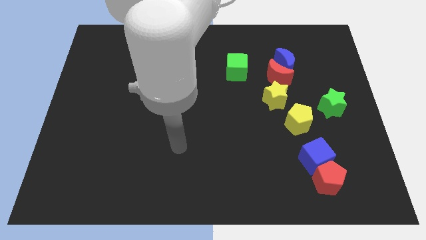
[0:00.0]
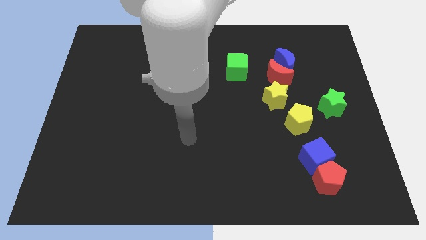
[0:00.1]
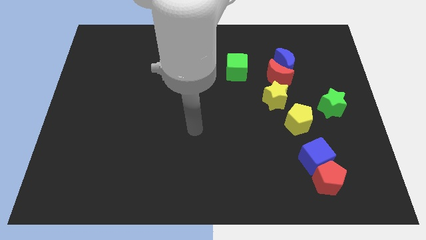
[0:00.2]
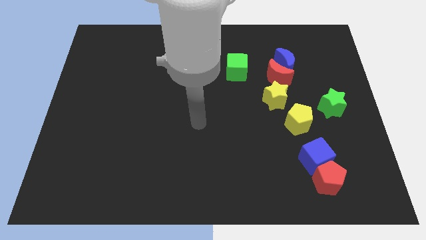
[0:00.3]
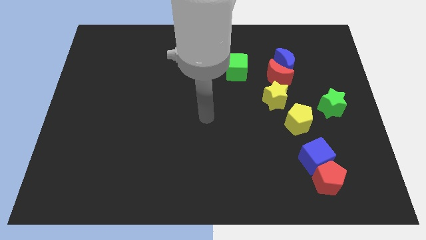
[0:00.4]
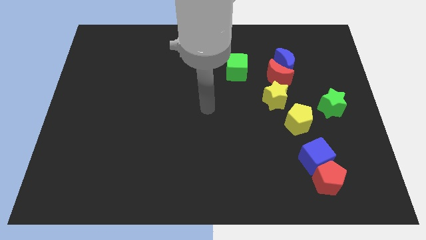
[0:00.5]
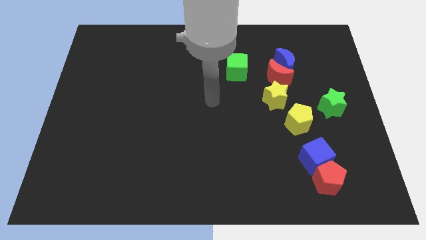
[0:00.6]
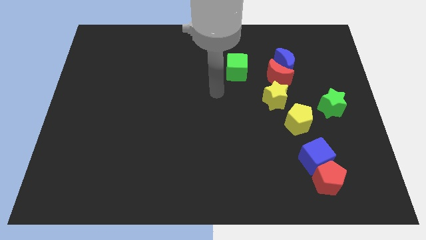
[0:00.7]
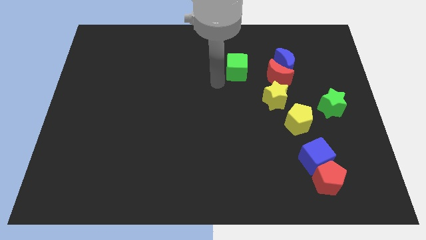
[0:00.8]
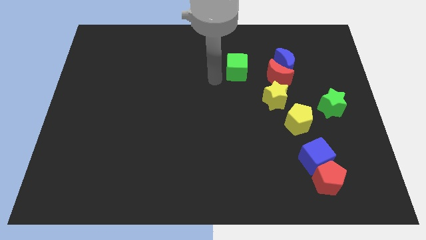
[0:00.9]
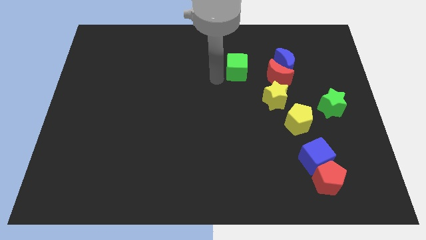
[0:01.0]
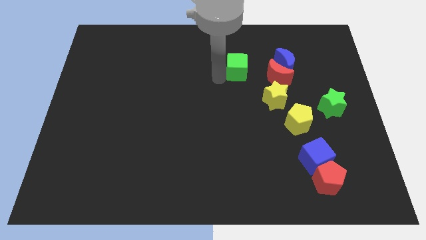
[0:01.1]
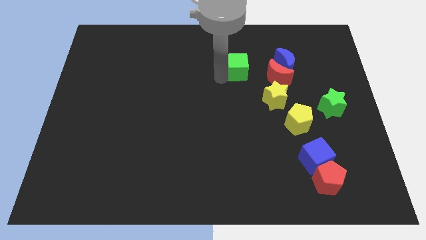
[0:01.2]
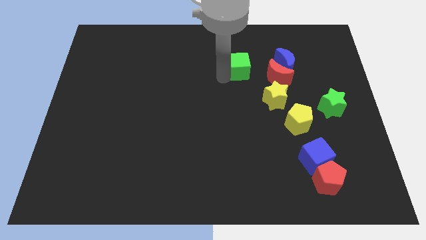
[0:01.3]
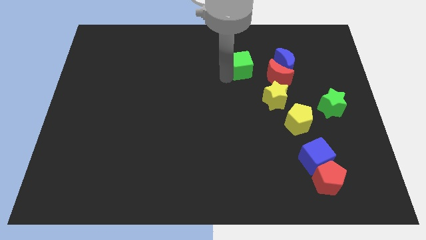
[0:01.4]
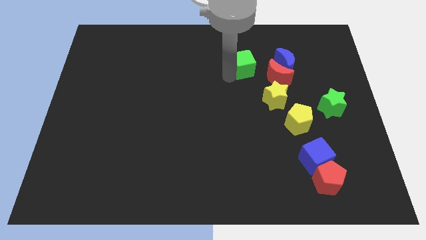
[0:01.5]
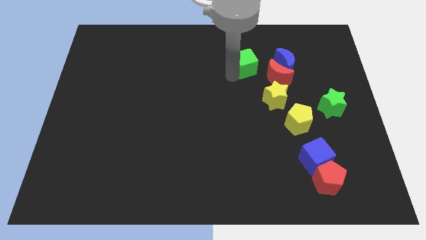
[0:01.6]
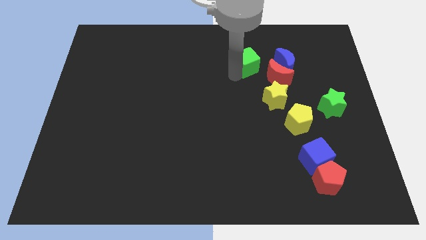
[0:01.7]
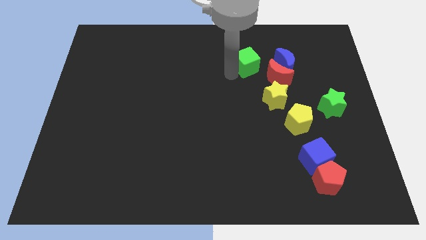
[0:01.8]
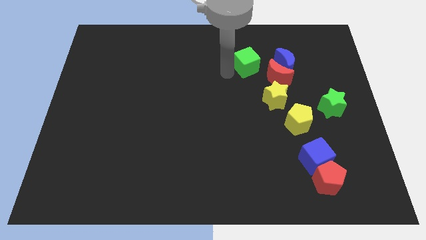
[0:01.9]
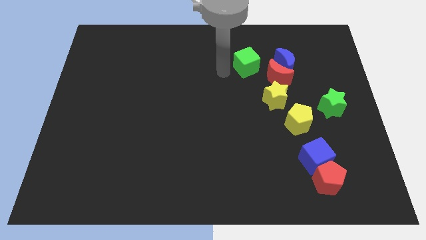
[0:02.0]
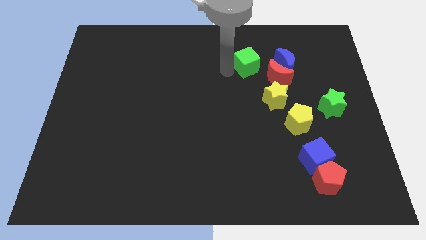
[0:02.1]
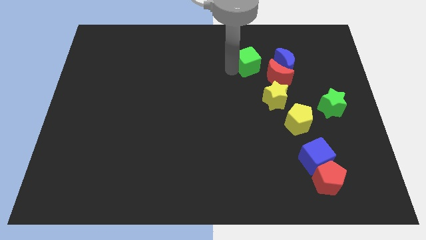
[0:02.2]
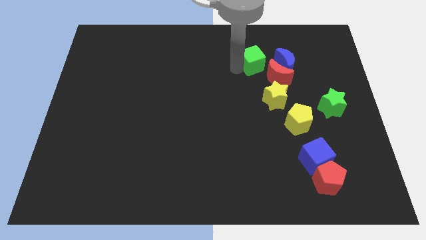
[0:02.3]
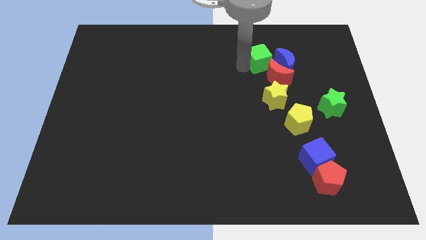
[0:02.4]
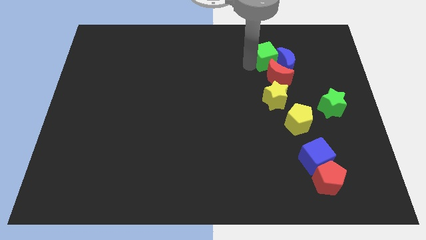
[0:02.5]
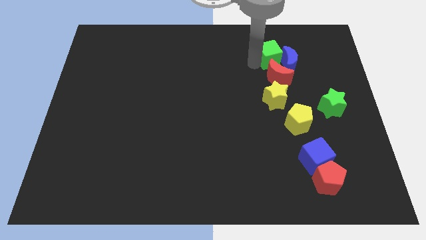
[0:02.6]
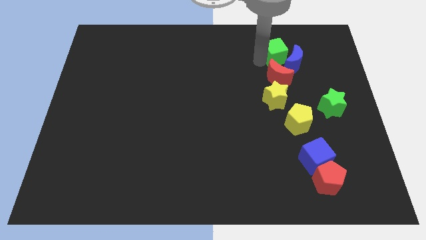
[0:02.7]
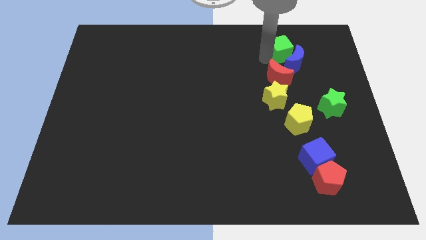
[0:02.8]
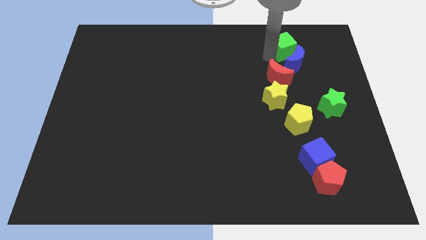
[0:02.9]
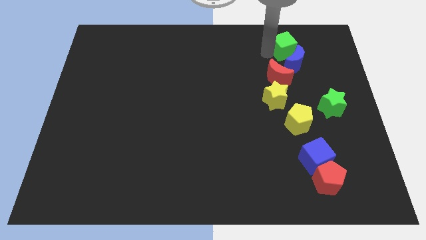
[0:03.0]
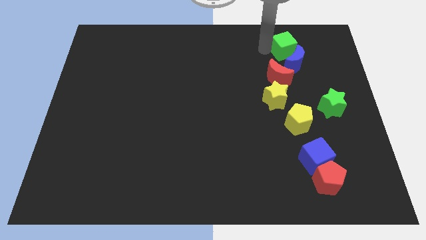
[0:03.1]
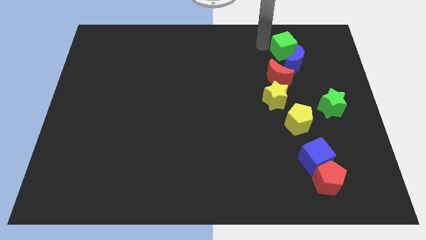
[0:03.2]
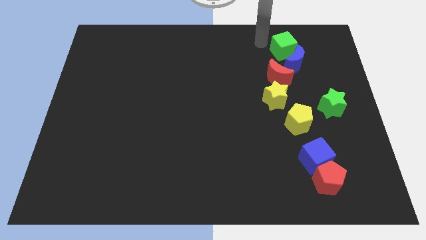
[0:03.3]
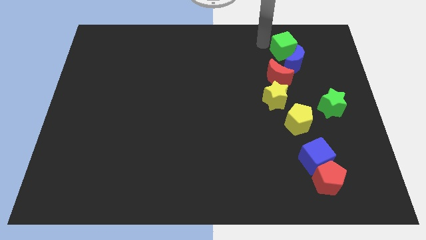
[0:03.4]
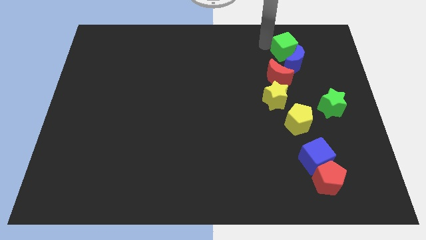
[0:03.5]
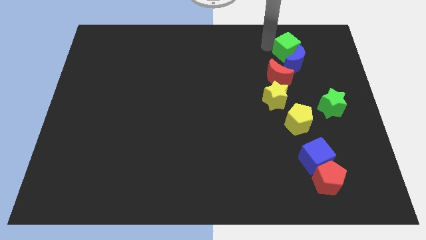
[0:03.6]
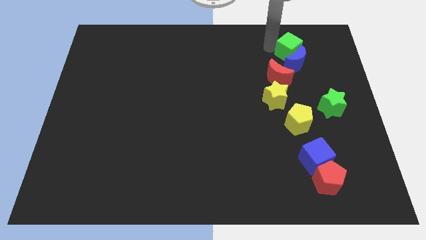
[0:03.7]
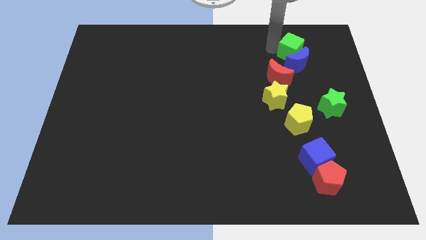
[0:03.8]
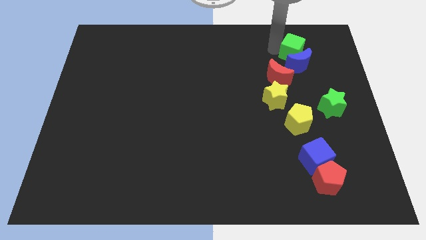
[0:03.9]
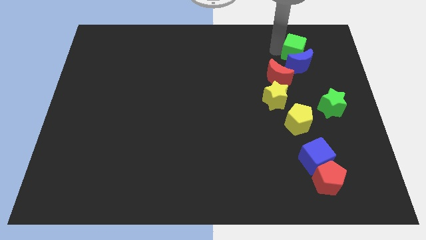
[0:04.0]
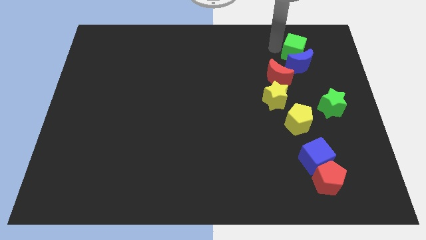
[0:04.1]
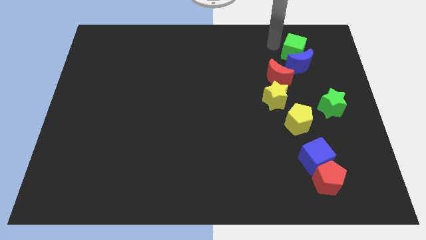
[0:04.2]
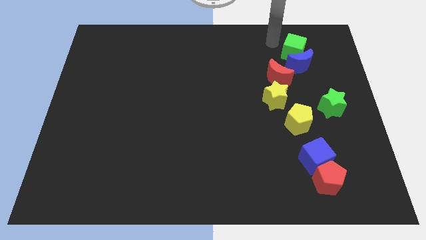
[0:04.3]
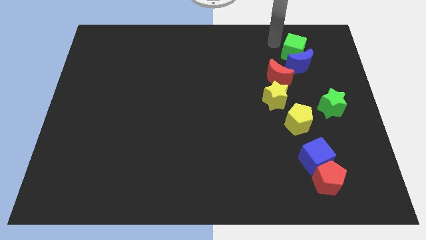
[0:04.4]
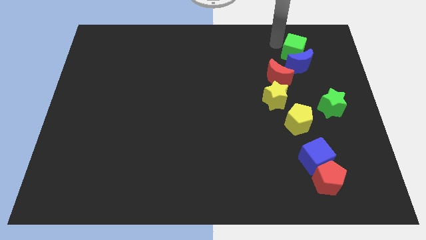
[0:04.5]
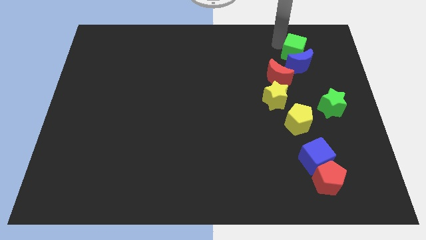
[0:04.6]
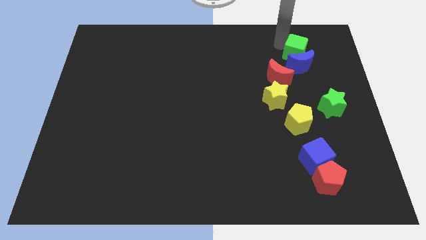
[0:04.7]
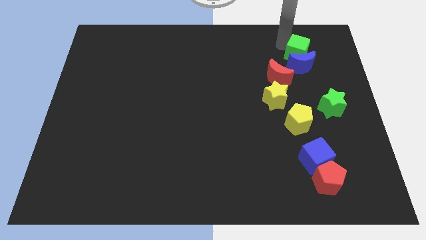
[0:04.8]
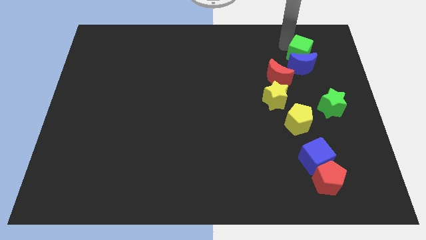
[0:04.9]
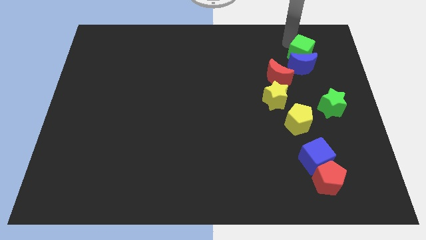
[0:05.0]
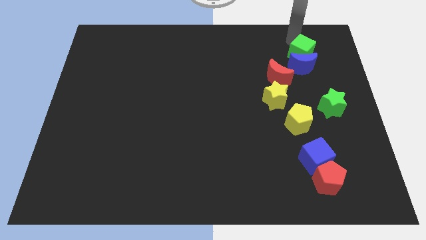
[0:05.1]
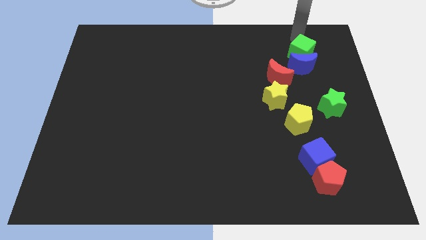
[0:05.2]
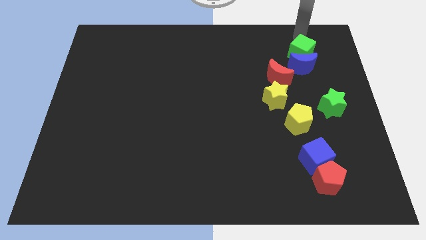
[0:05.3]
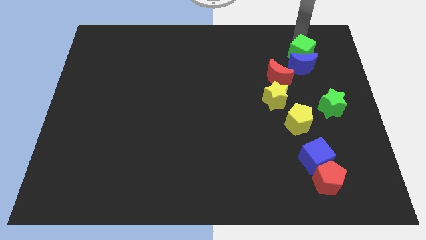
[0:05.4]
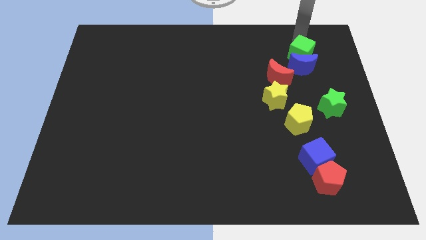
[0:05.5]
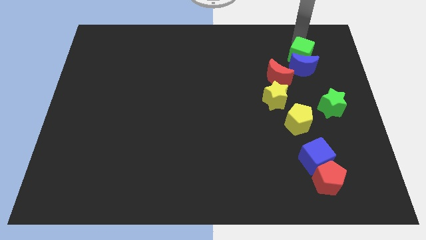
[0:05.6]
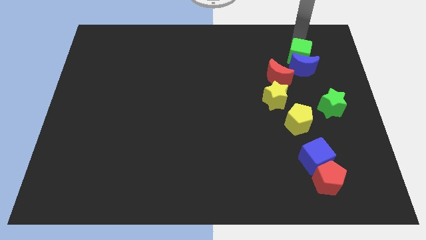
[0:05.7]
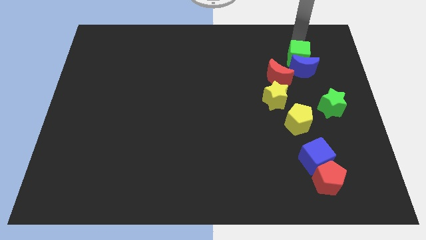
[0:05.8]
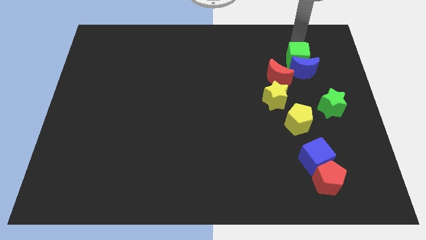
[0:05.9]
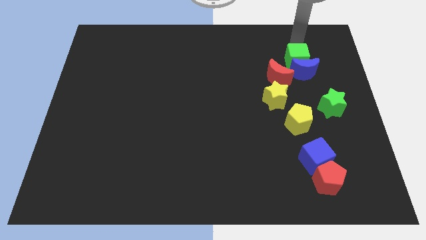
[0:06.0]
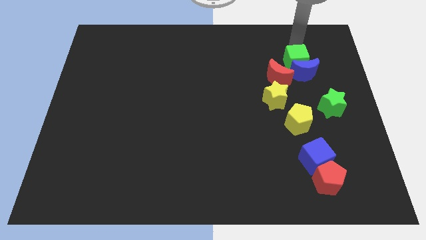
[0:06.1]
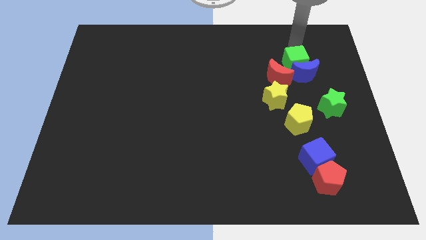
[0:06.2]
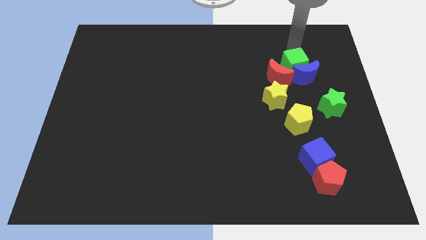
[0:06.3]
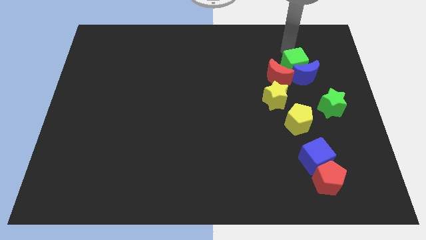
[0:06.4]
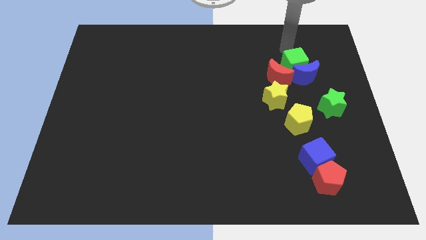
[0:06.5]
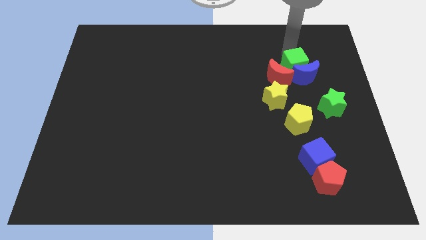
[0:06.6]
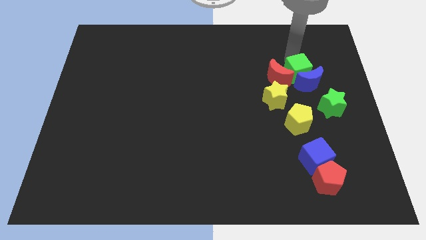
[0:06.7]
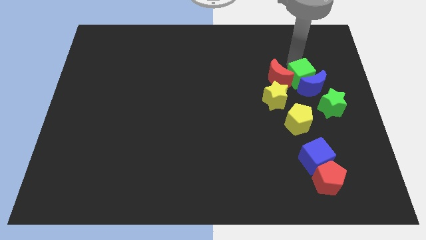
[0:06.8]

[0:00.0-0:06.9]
push the green cube to the top left of the green star

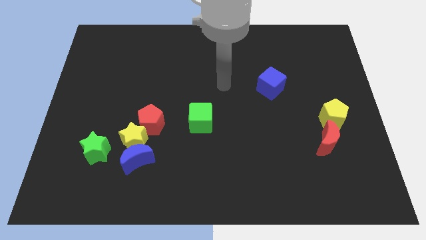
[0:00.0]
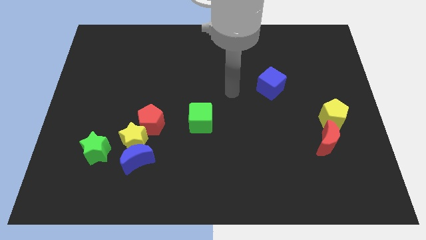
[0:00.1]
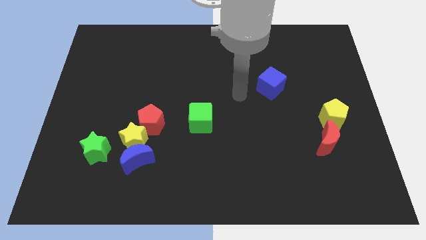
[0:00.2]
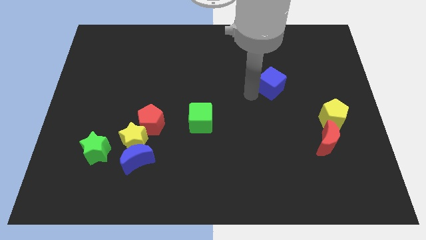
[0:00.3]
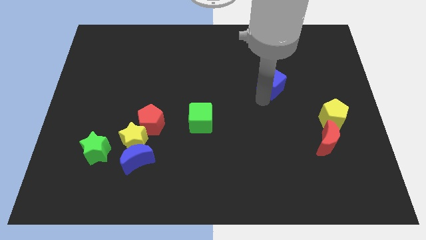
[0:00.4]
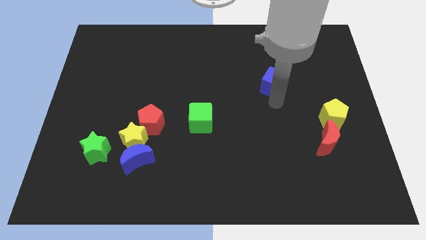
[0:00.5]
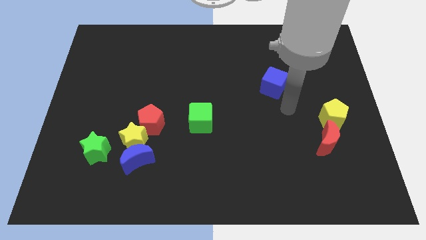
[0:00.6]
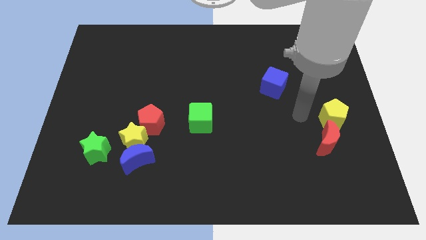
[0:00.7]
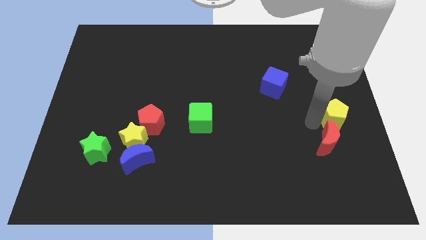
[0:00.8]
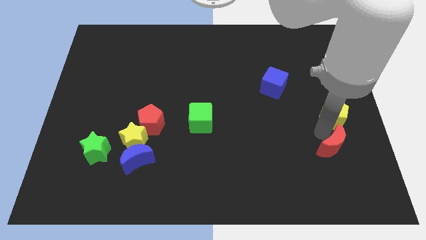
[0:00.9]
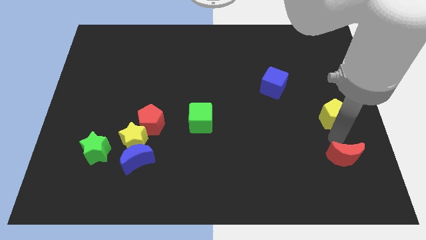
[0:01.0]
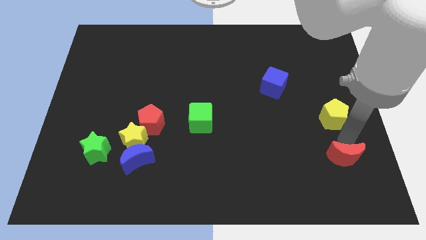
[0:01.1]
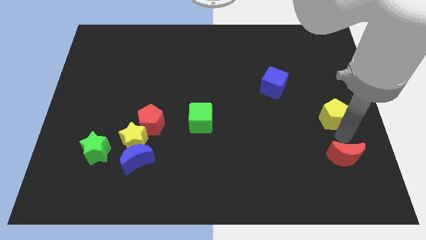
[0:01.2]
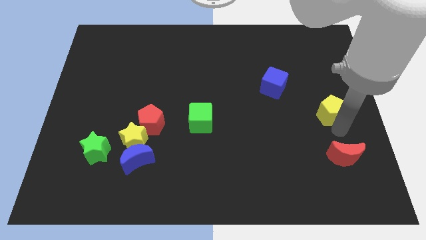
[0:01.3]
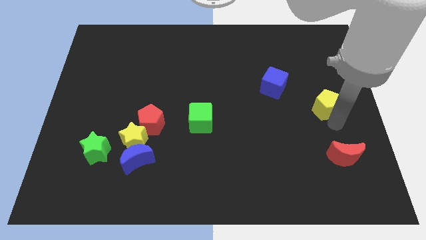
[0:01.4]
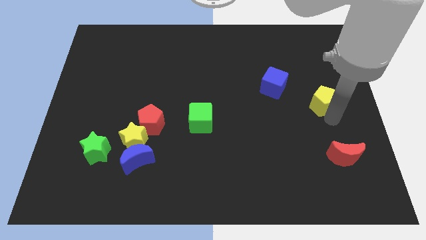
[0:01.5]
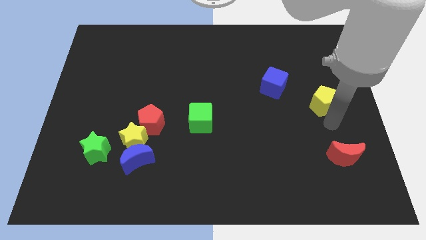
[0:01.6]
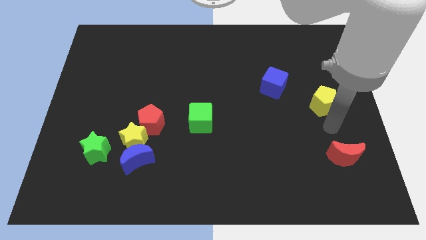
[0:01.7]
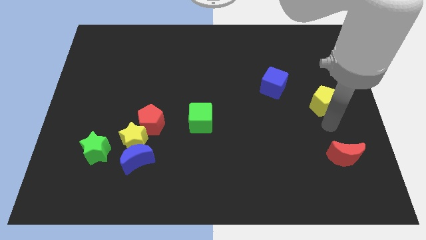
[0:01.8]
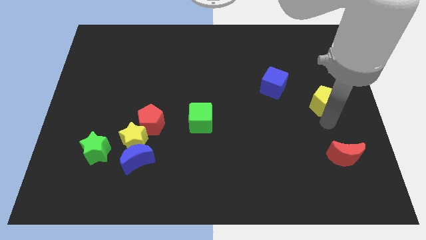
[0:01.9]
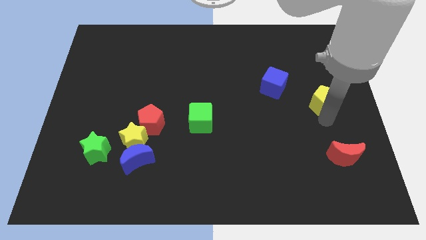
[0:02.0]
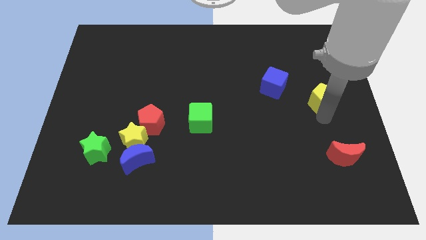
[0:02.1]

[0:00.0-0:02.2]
slide the yellow pentagon to the right side of the blue cube
